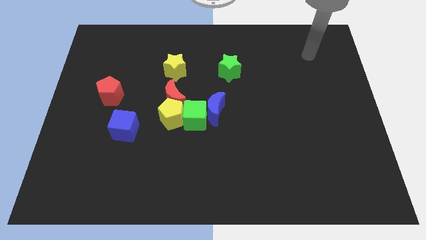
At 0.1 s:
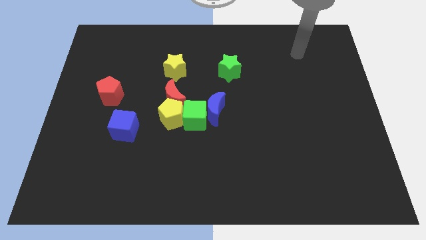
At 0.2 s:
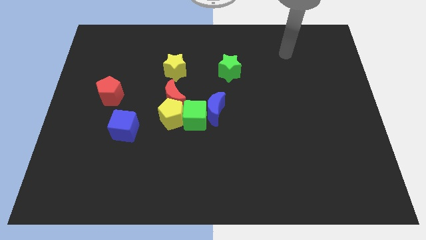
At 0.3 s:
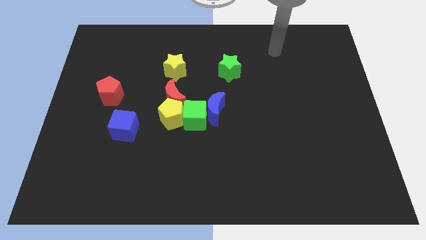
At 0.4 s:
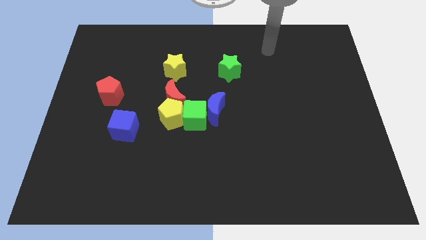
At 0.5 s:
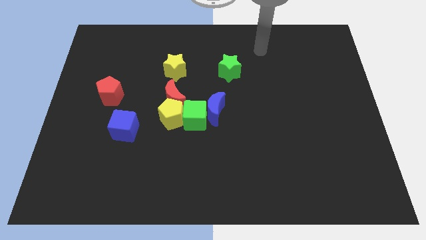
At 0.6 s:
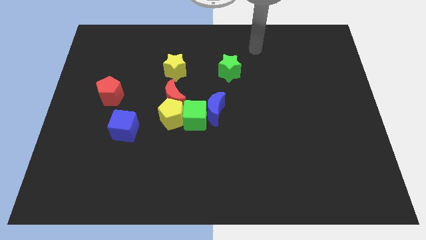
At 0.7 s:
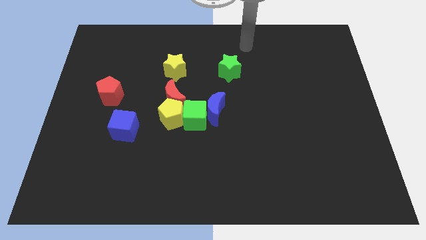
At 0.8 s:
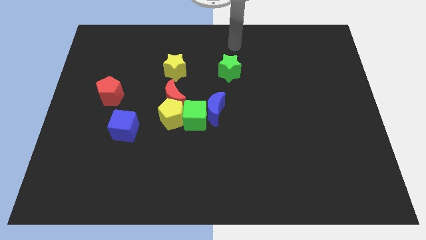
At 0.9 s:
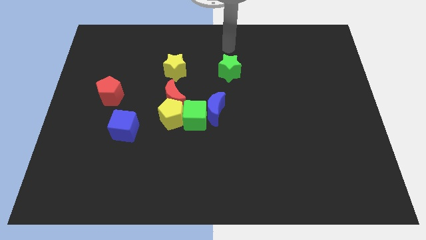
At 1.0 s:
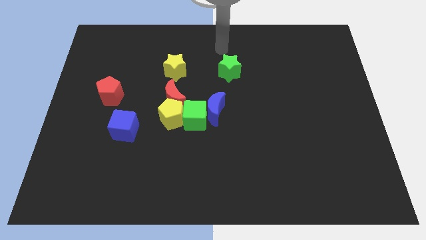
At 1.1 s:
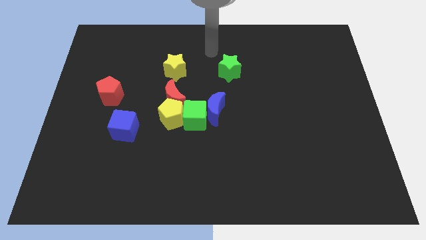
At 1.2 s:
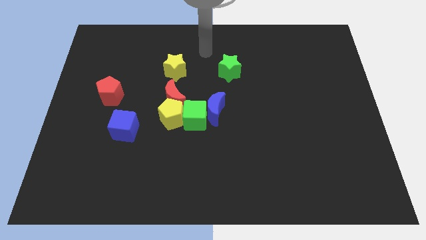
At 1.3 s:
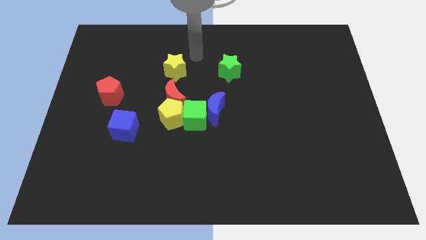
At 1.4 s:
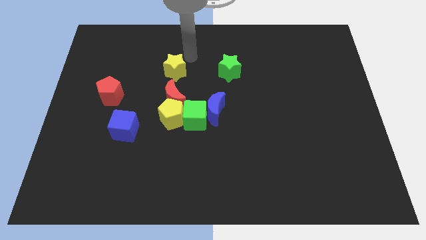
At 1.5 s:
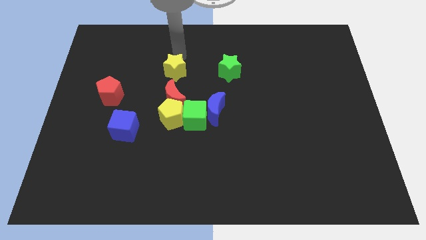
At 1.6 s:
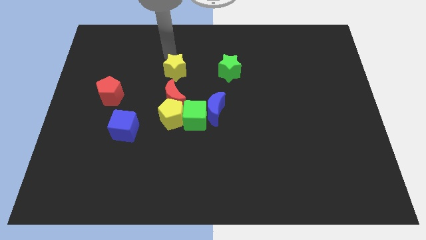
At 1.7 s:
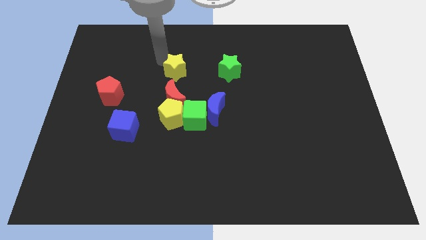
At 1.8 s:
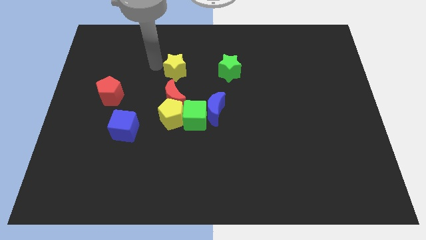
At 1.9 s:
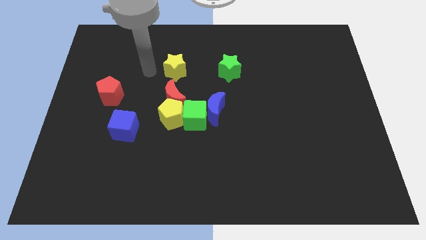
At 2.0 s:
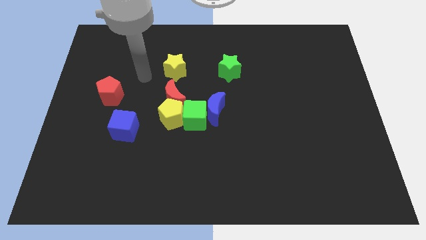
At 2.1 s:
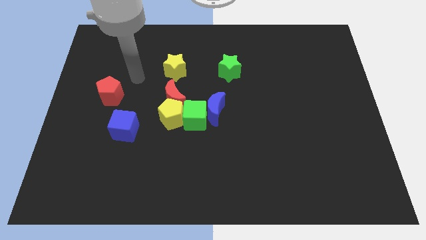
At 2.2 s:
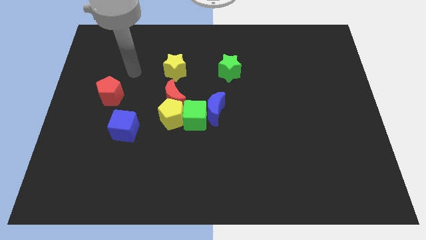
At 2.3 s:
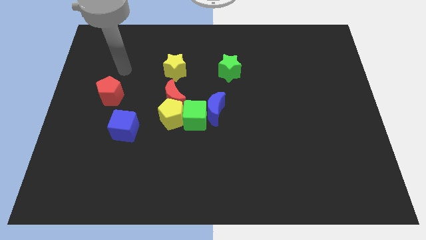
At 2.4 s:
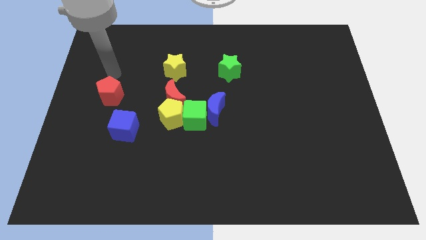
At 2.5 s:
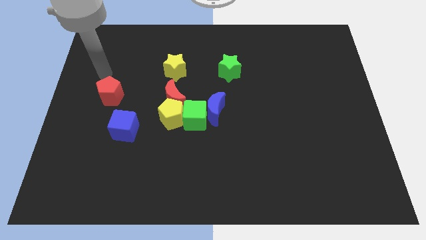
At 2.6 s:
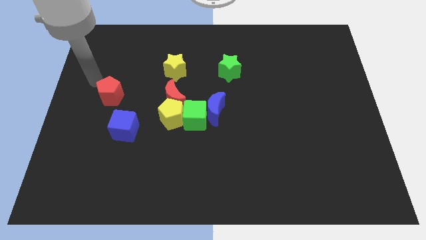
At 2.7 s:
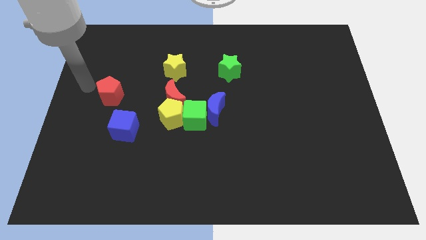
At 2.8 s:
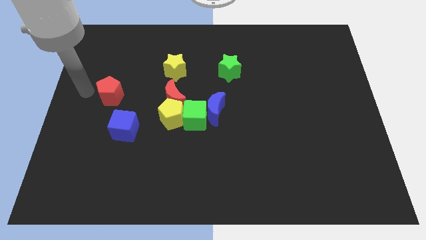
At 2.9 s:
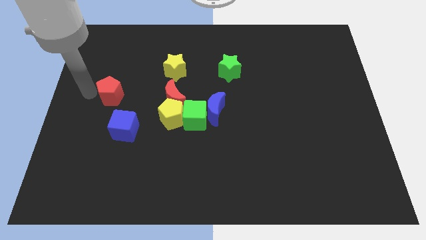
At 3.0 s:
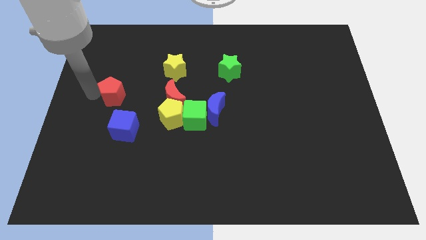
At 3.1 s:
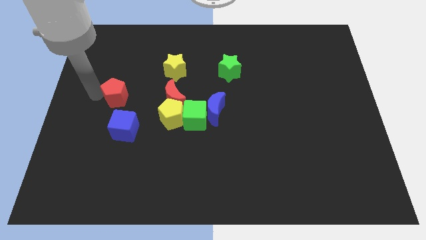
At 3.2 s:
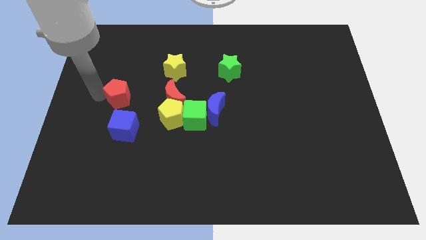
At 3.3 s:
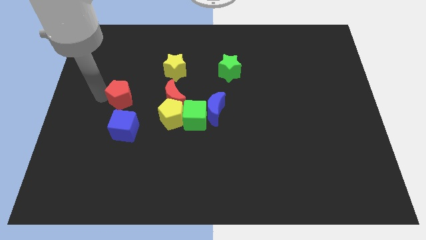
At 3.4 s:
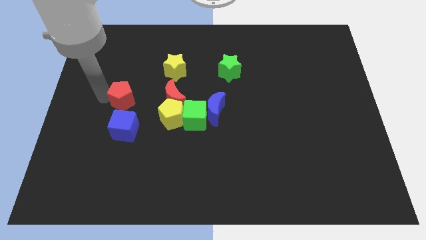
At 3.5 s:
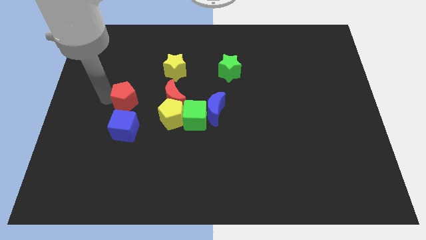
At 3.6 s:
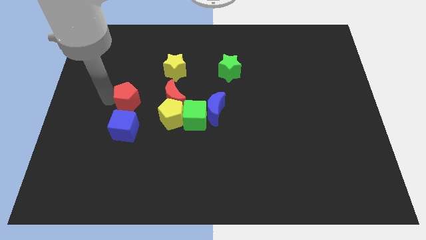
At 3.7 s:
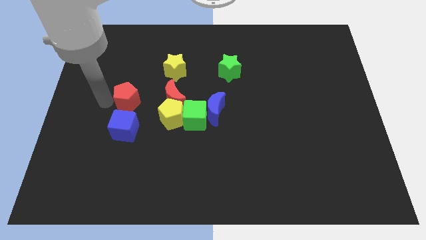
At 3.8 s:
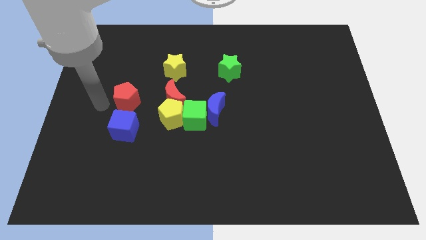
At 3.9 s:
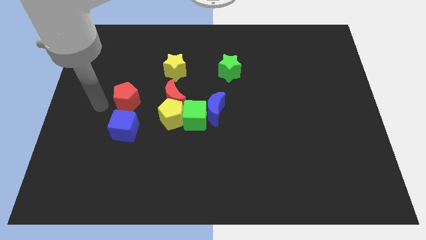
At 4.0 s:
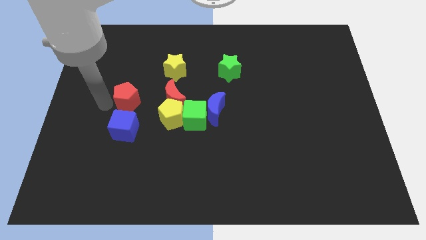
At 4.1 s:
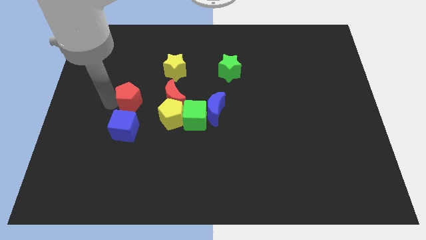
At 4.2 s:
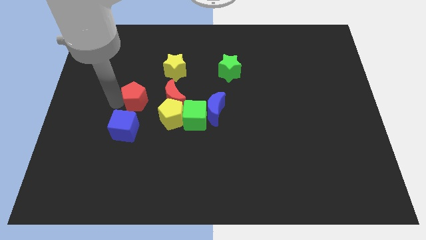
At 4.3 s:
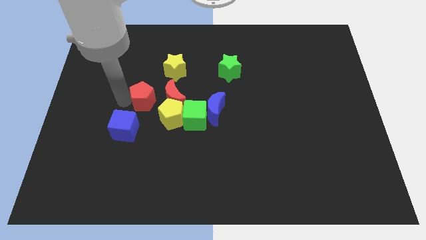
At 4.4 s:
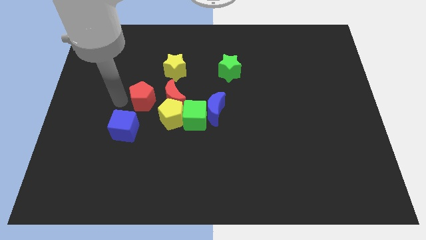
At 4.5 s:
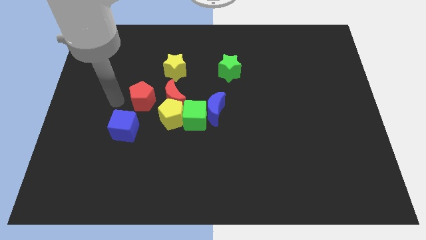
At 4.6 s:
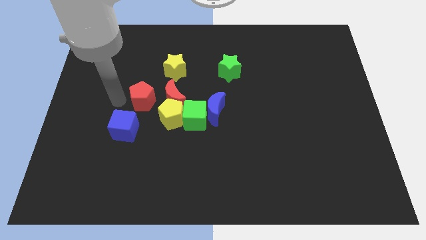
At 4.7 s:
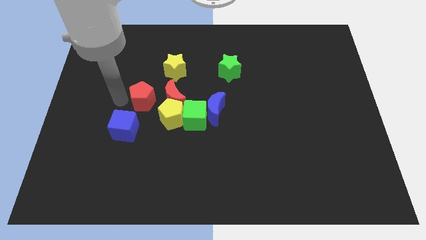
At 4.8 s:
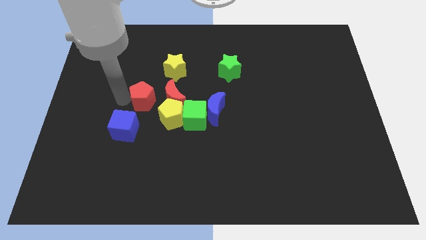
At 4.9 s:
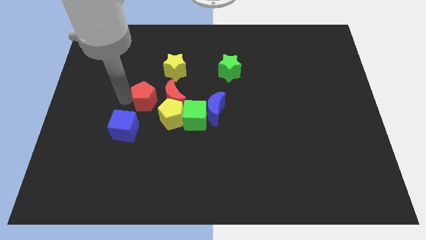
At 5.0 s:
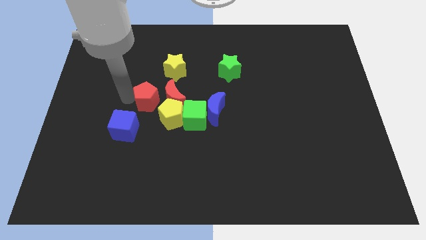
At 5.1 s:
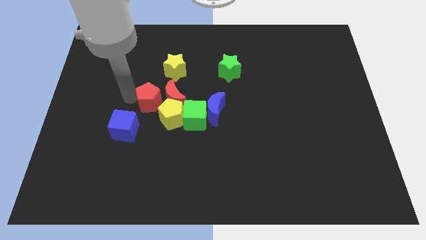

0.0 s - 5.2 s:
move the red pentagon close to the red moon
